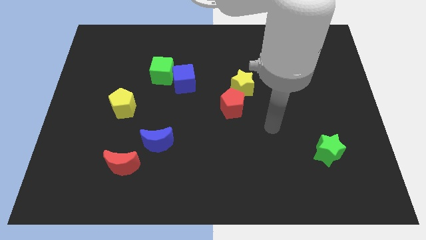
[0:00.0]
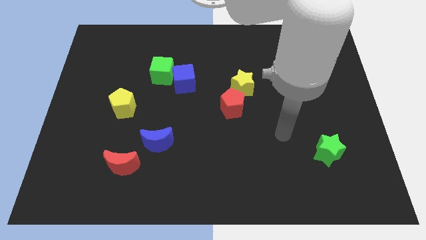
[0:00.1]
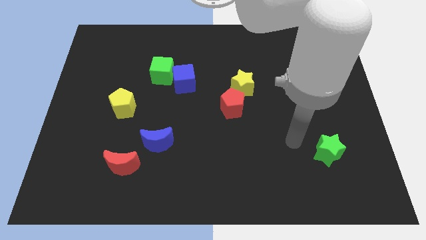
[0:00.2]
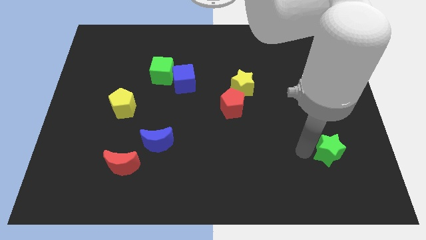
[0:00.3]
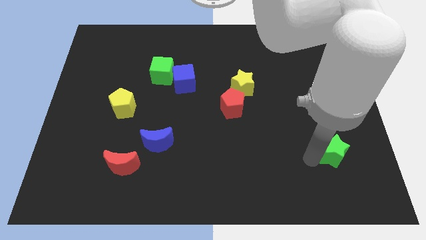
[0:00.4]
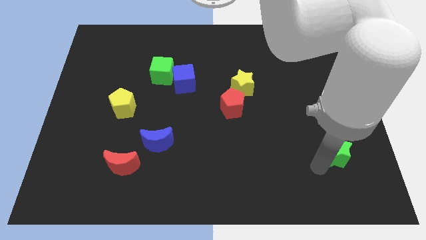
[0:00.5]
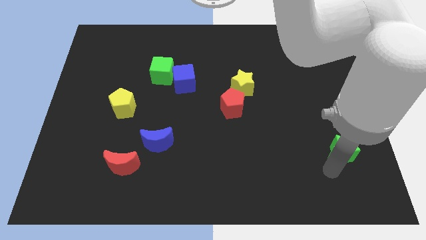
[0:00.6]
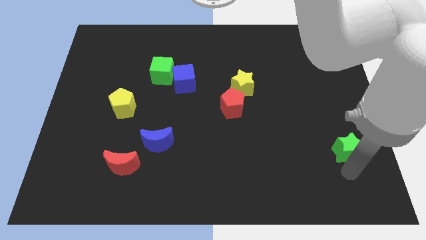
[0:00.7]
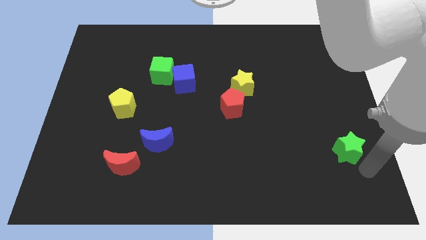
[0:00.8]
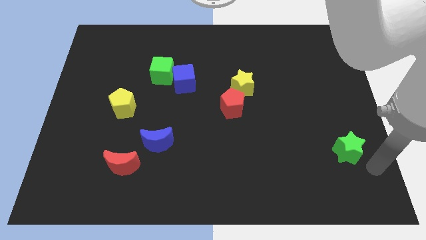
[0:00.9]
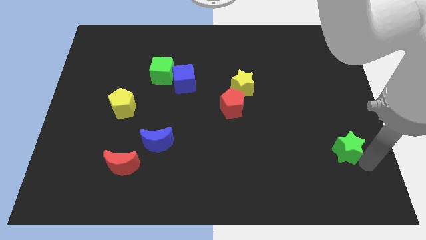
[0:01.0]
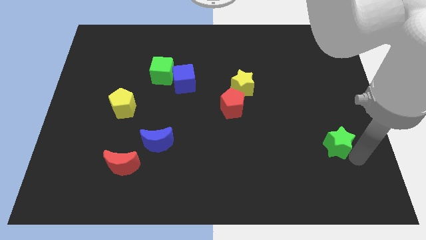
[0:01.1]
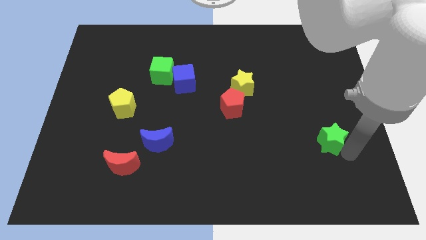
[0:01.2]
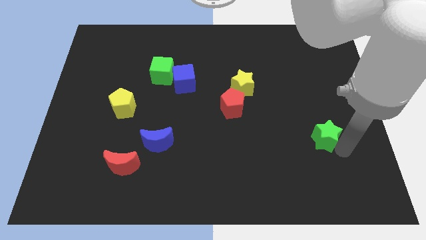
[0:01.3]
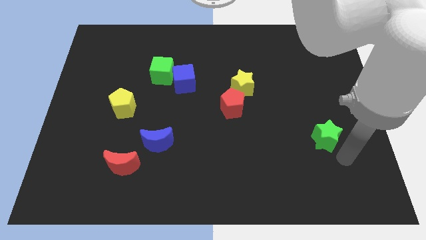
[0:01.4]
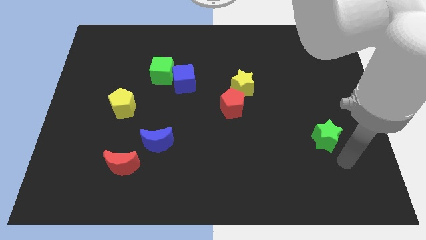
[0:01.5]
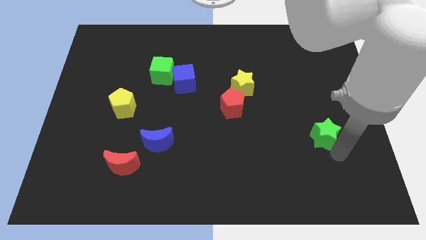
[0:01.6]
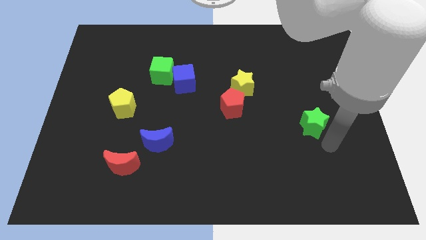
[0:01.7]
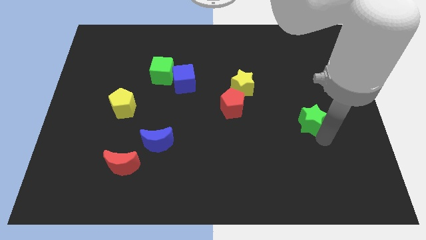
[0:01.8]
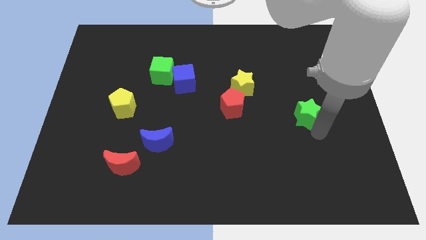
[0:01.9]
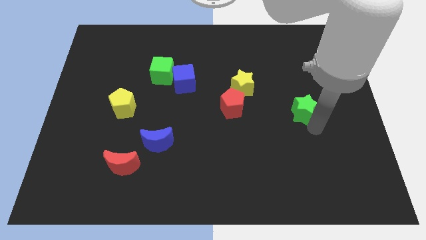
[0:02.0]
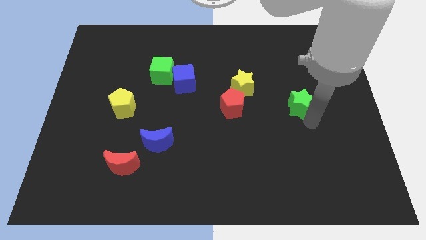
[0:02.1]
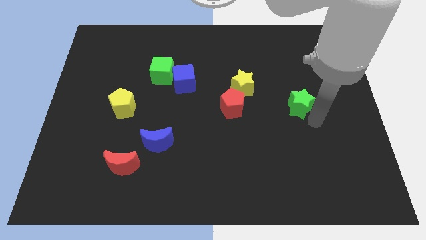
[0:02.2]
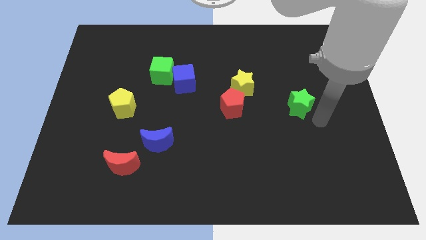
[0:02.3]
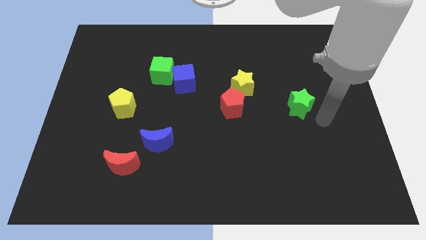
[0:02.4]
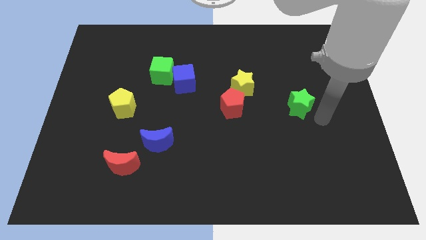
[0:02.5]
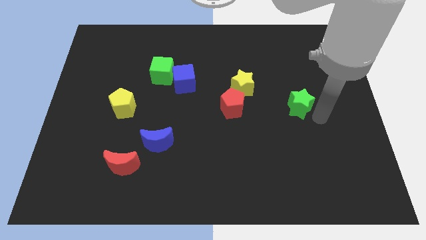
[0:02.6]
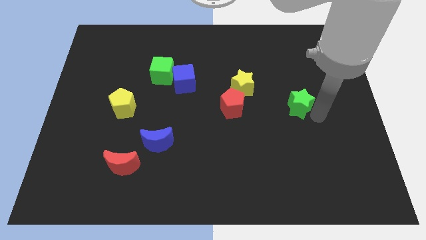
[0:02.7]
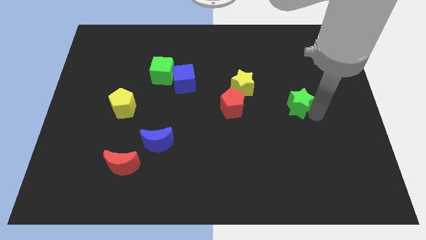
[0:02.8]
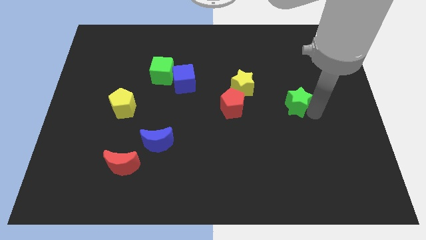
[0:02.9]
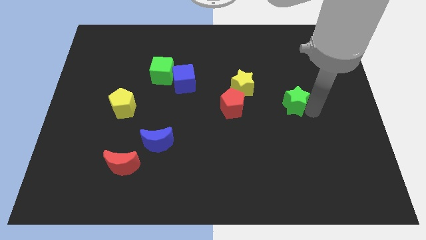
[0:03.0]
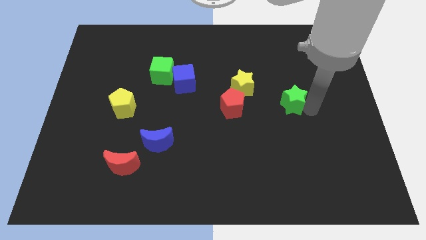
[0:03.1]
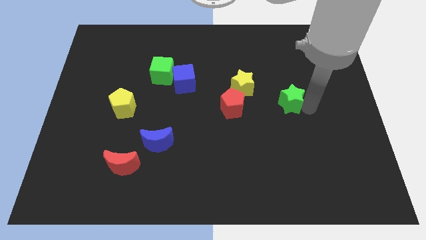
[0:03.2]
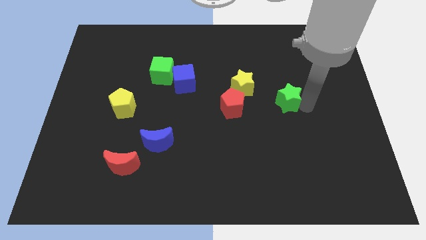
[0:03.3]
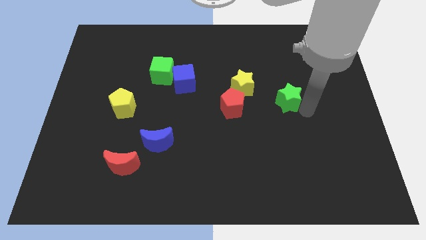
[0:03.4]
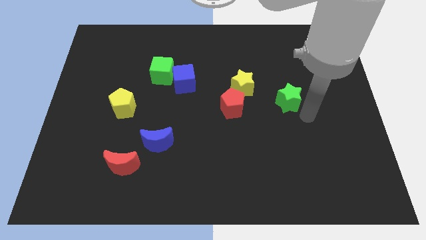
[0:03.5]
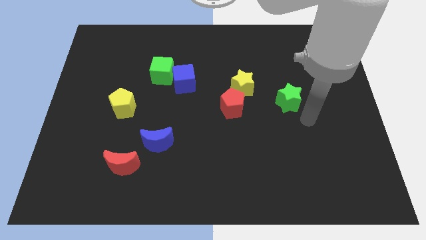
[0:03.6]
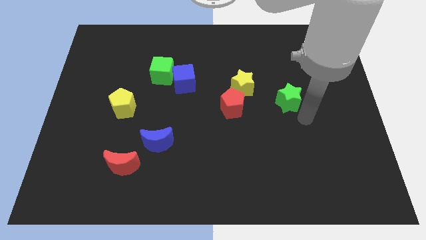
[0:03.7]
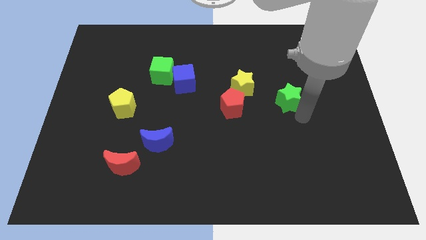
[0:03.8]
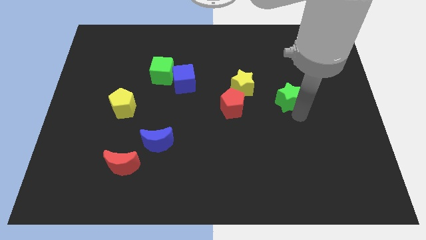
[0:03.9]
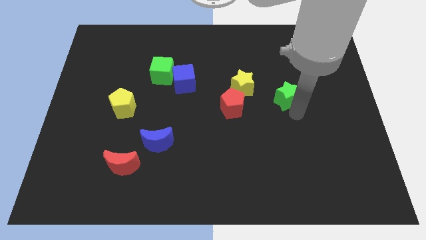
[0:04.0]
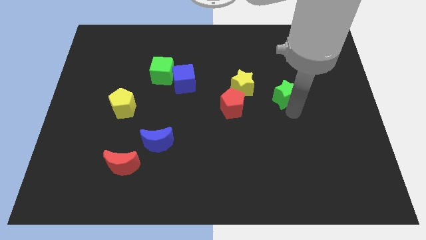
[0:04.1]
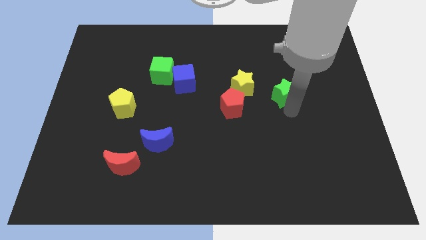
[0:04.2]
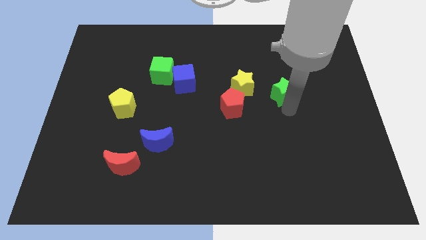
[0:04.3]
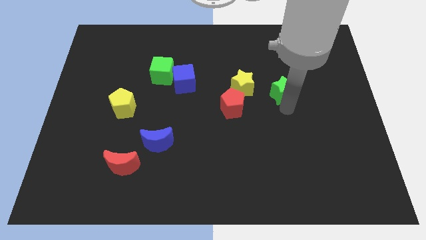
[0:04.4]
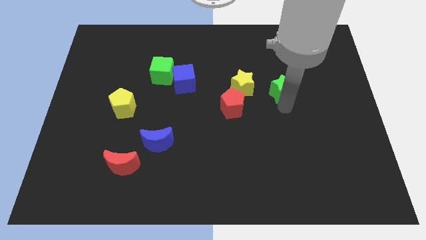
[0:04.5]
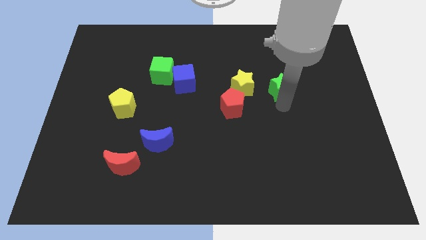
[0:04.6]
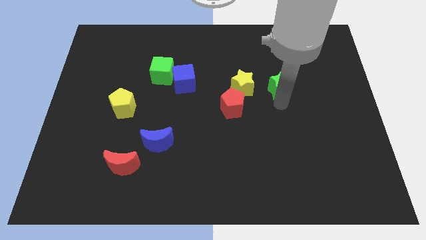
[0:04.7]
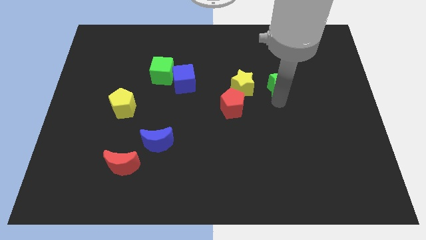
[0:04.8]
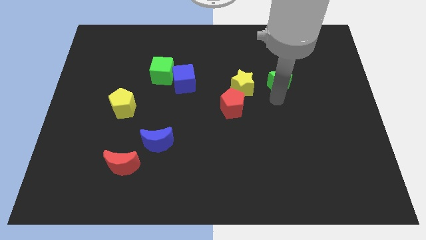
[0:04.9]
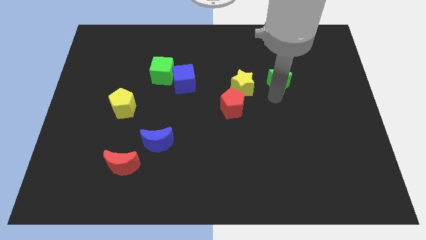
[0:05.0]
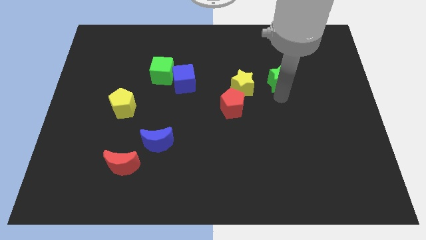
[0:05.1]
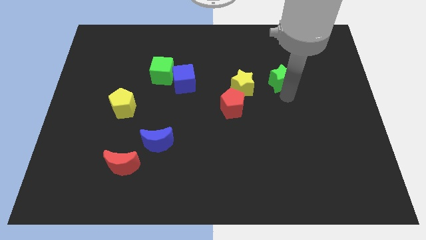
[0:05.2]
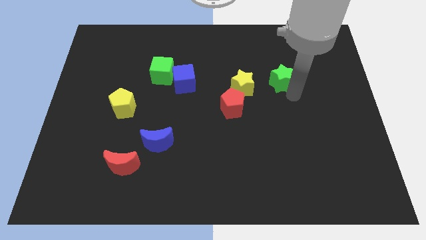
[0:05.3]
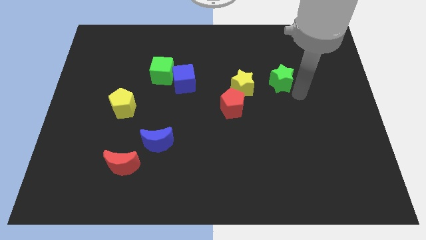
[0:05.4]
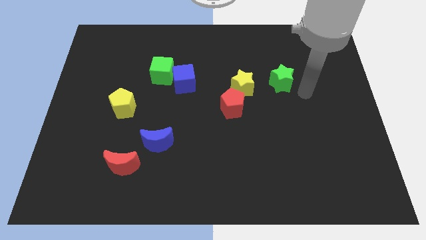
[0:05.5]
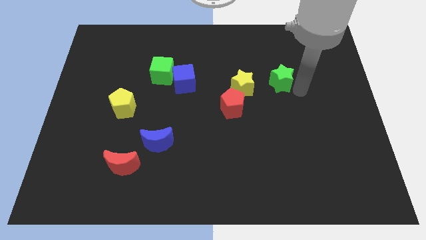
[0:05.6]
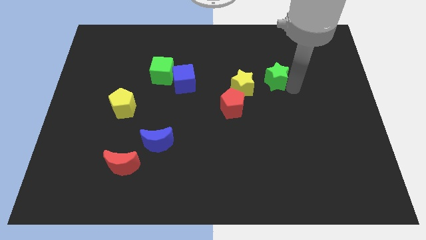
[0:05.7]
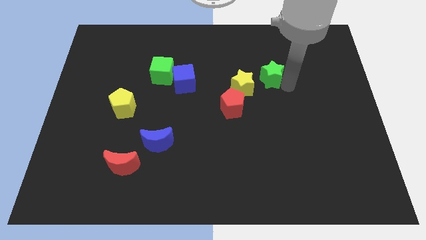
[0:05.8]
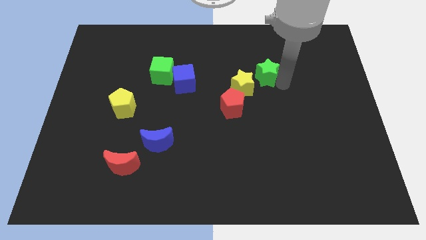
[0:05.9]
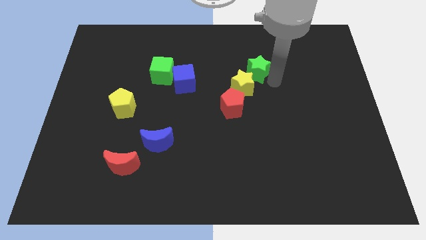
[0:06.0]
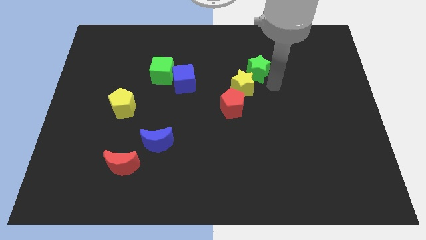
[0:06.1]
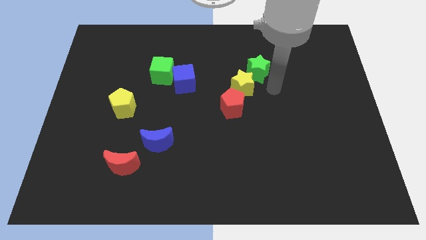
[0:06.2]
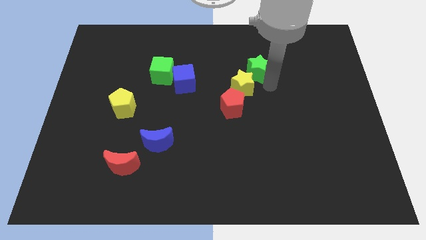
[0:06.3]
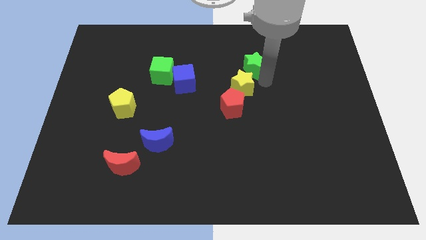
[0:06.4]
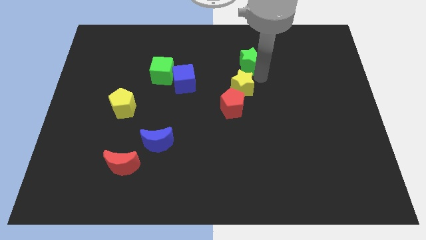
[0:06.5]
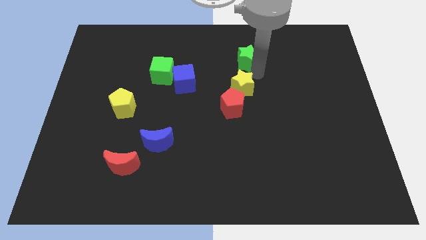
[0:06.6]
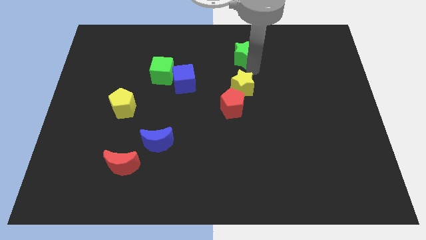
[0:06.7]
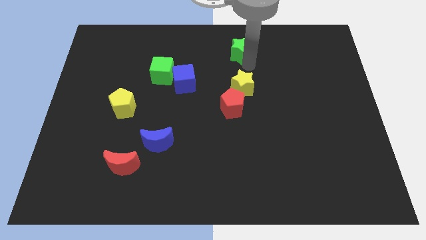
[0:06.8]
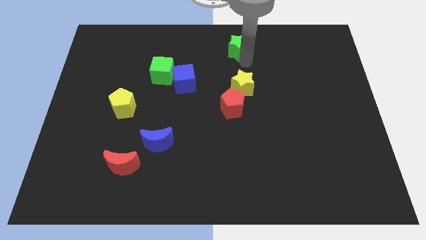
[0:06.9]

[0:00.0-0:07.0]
put the green star to the top side
